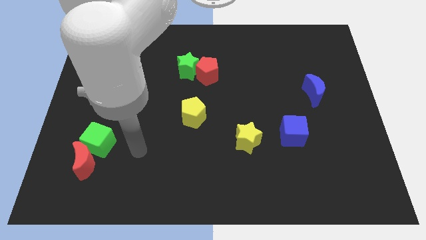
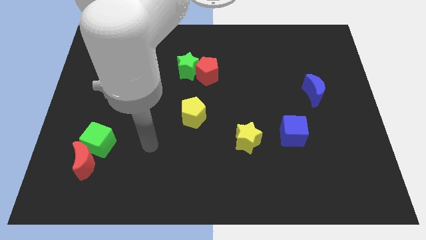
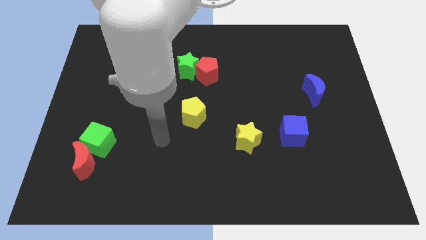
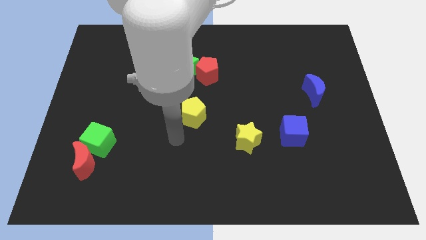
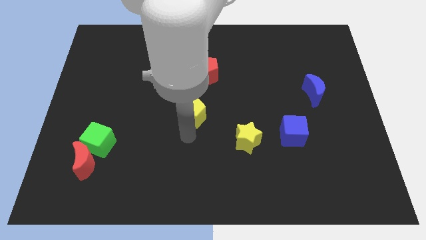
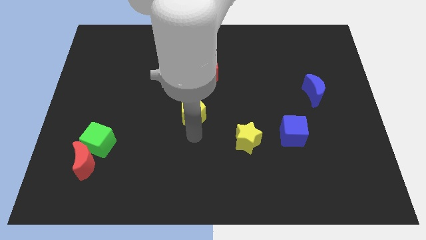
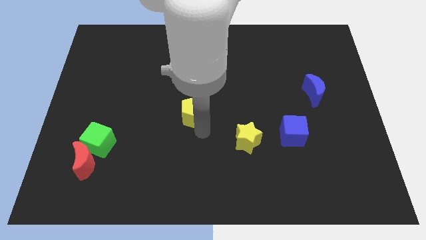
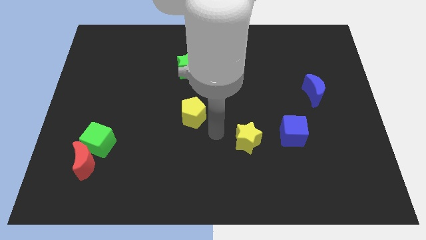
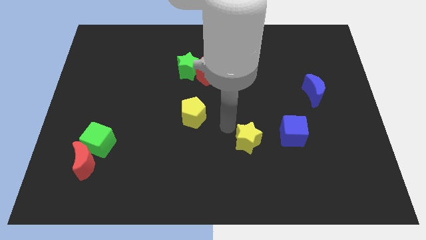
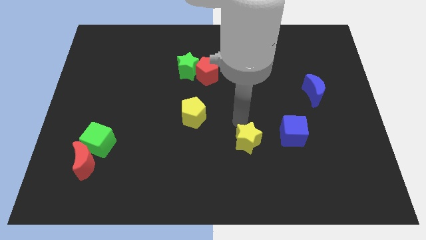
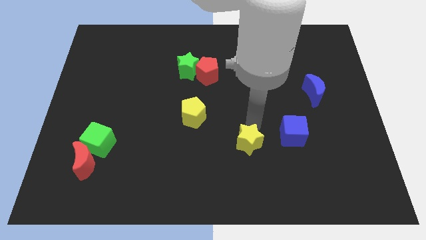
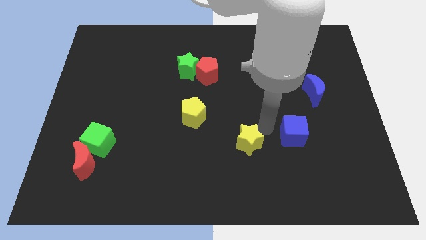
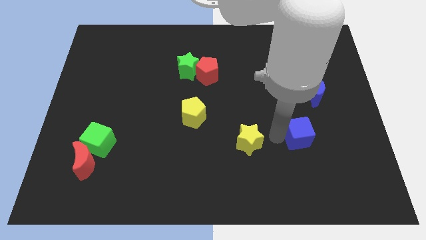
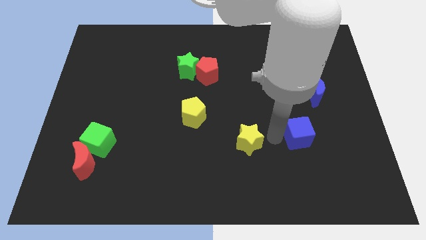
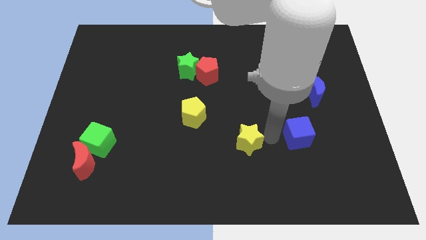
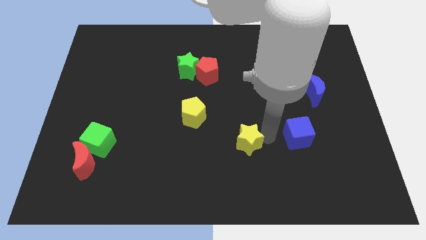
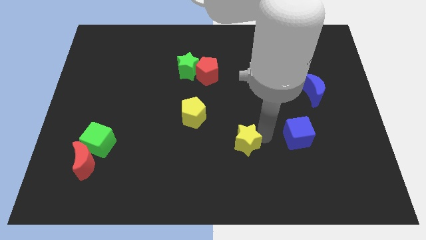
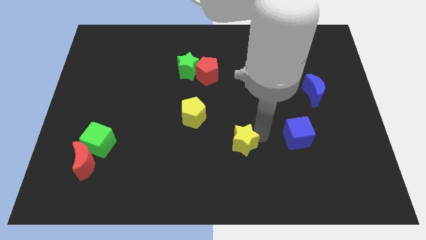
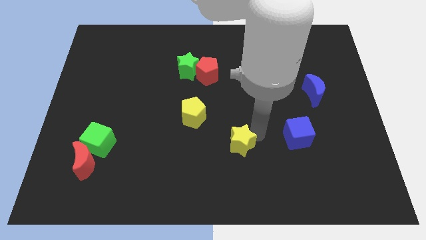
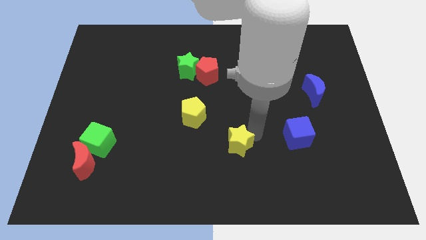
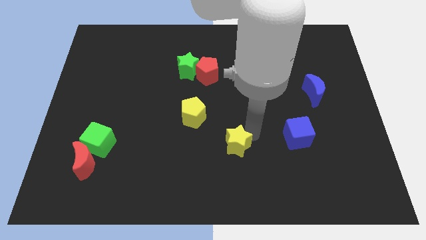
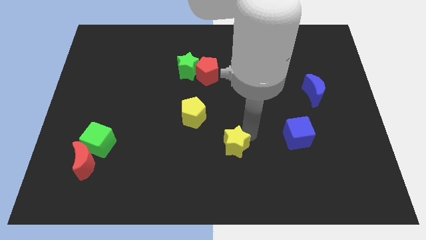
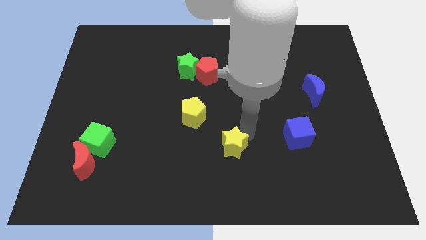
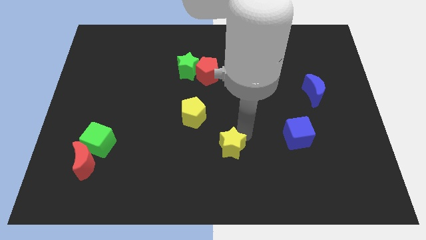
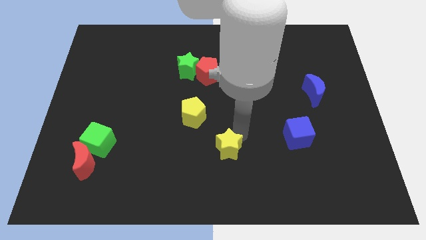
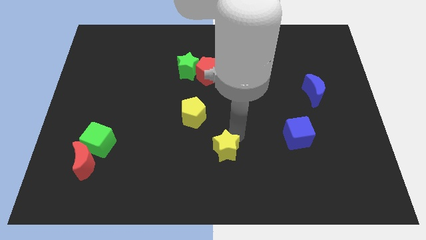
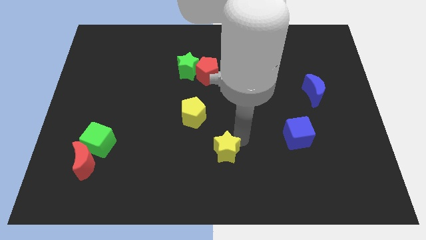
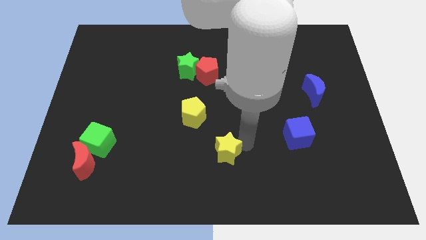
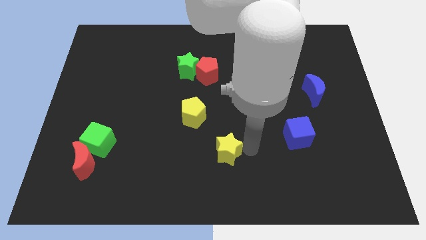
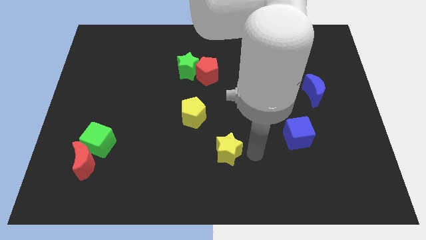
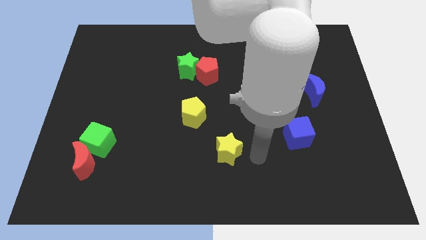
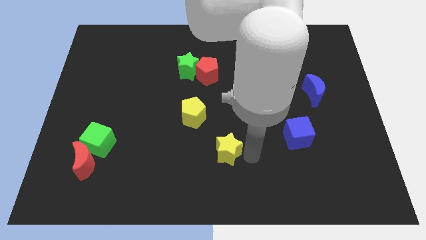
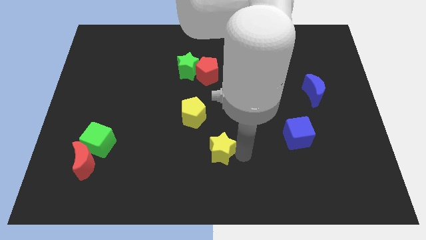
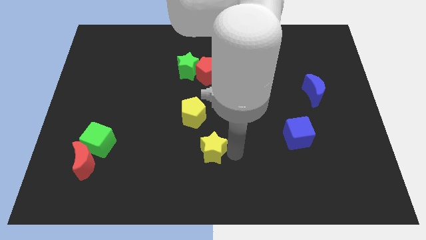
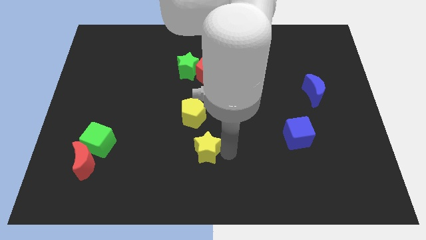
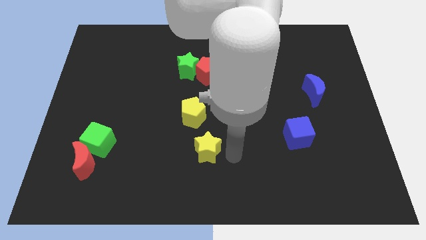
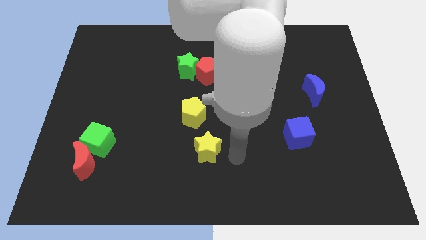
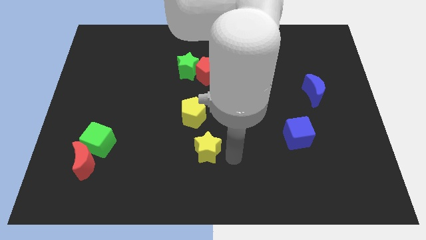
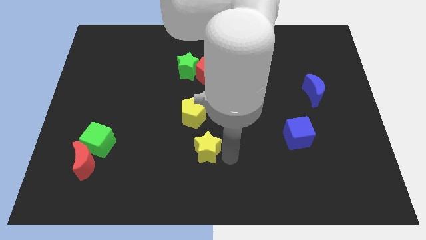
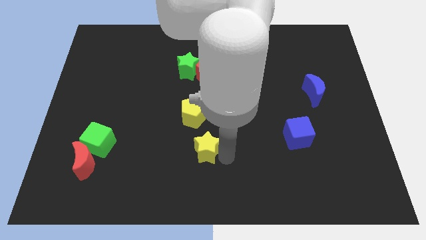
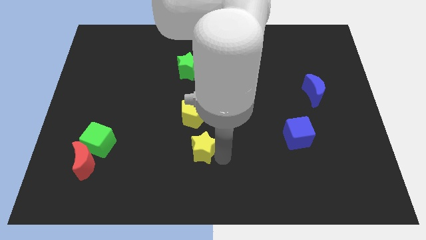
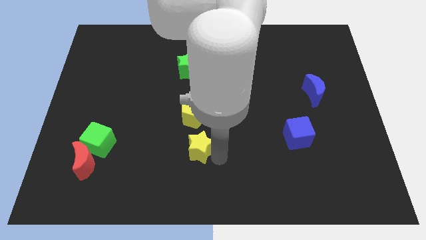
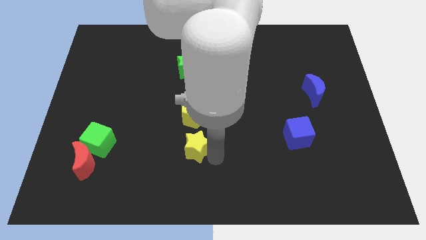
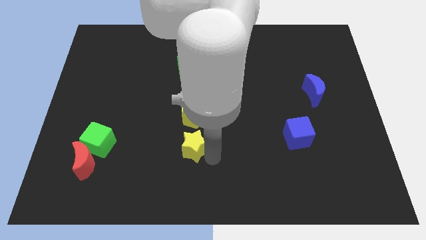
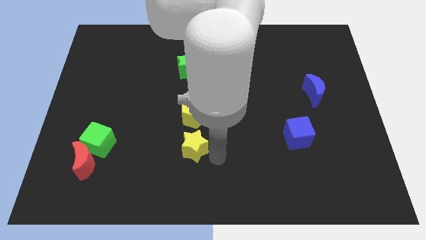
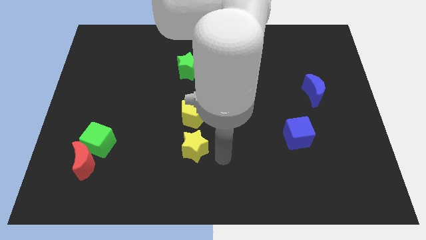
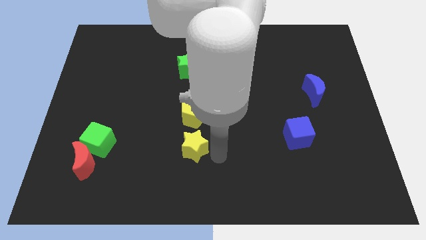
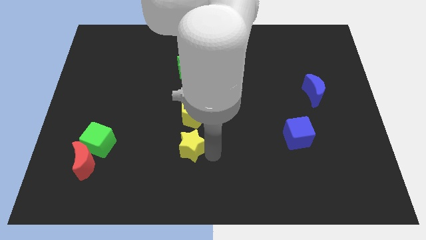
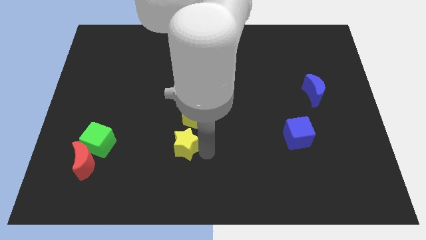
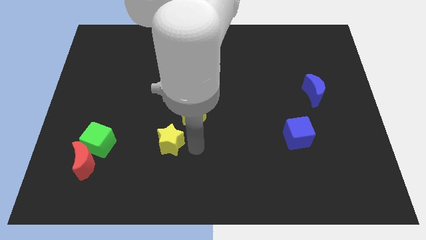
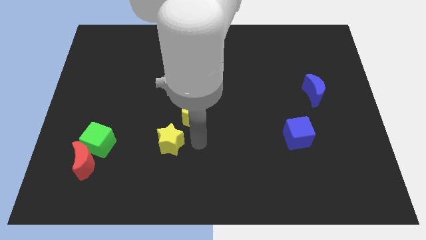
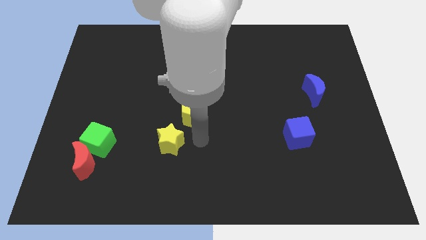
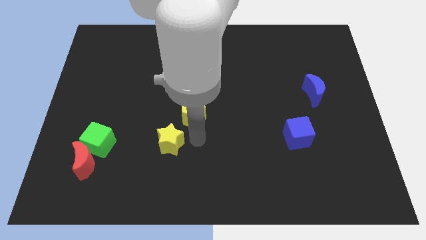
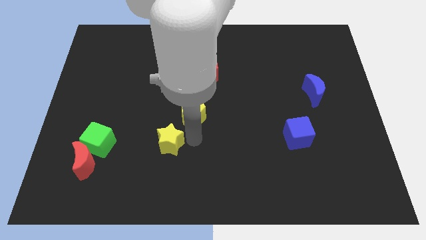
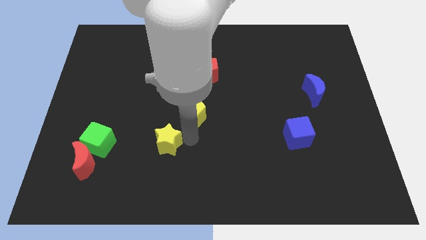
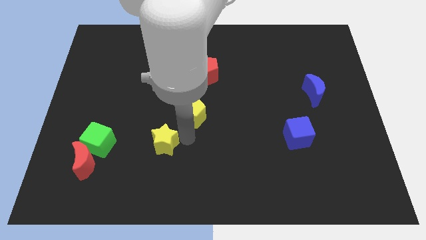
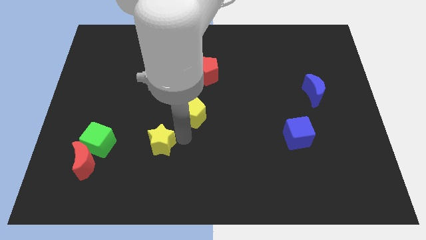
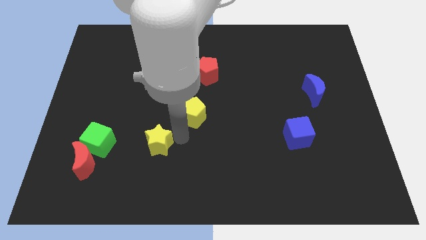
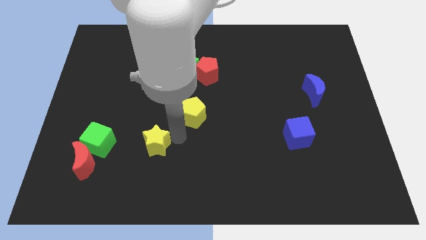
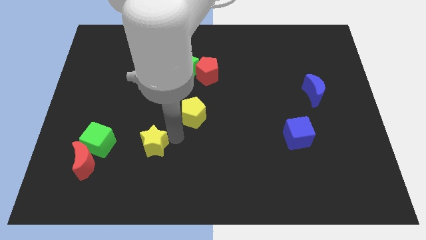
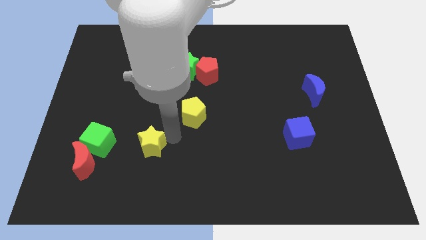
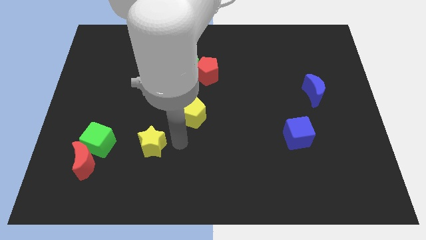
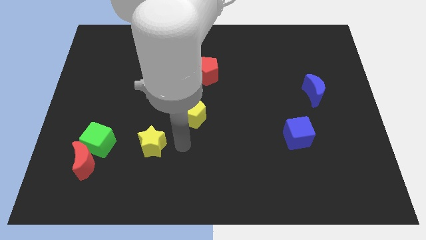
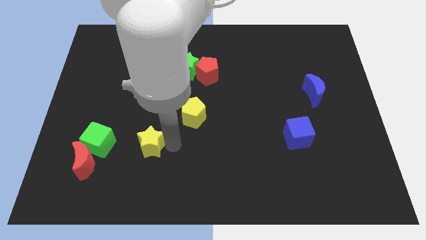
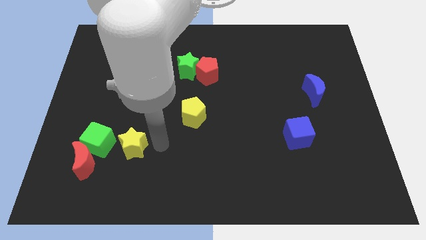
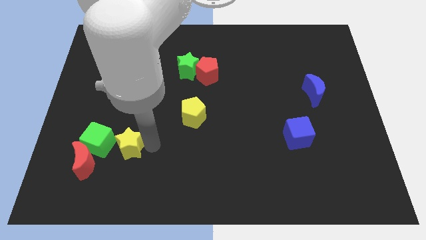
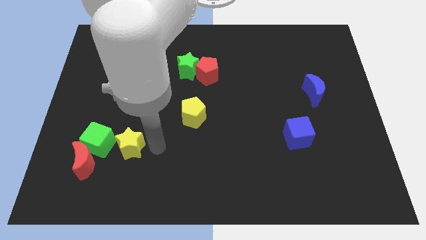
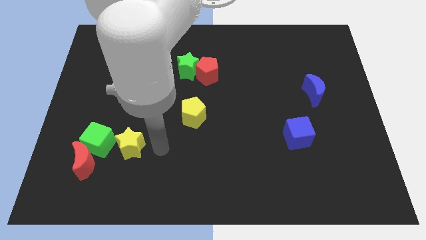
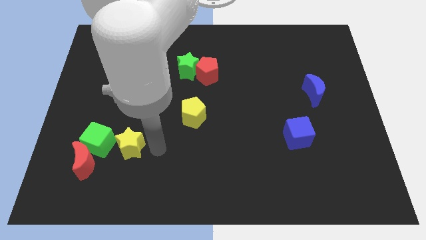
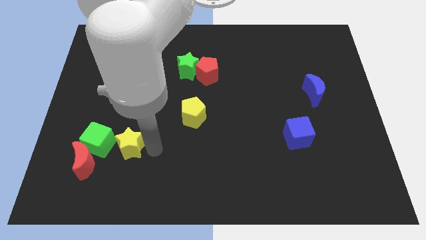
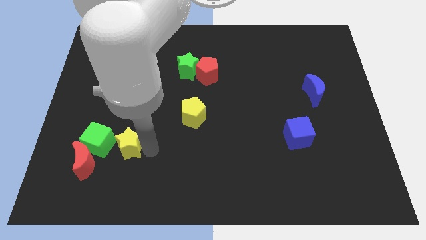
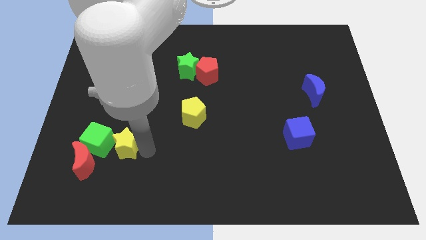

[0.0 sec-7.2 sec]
push the yellow star to the green cube
